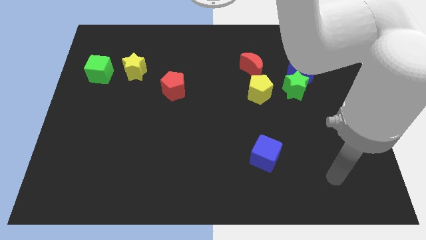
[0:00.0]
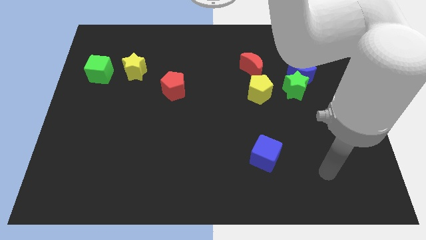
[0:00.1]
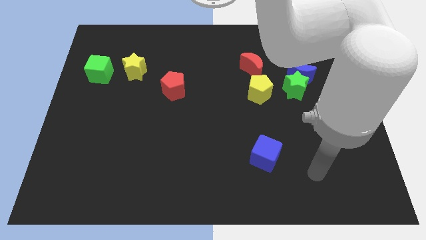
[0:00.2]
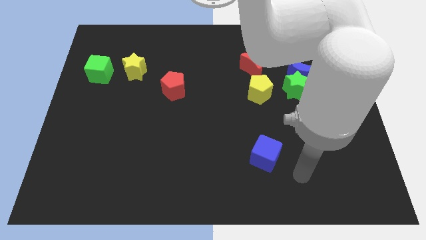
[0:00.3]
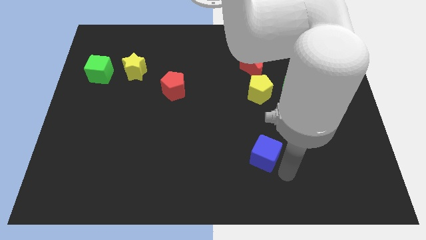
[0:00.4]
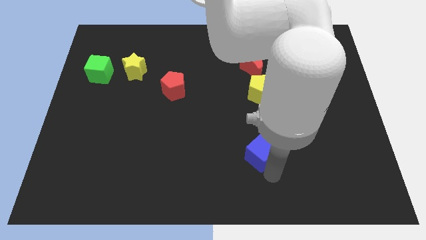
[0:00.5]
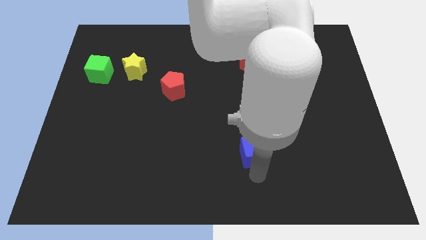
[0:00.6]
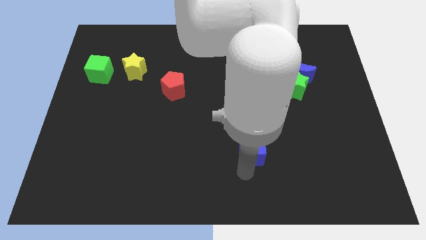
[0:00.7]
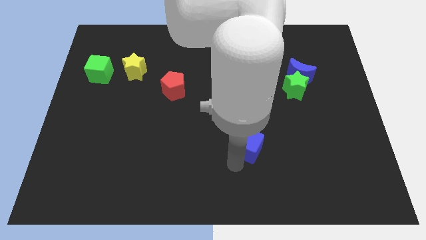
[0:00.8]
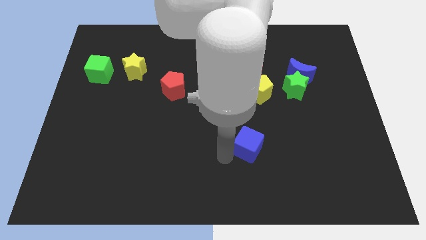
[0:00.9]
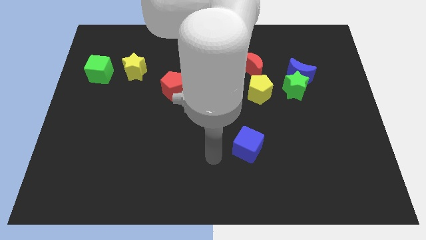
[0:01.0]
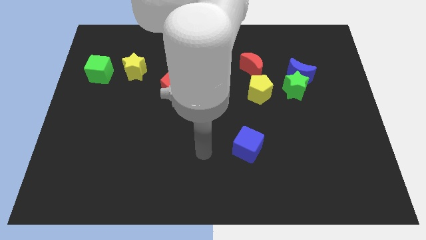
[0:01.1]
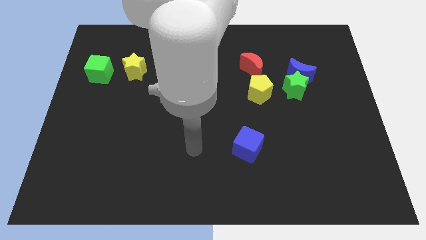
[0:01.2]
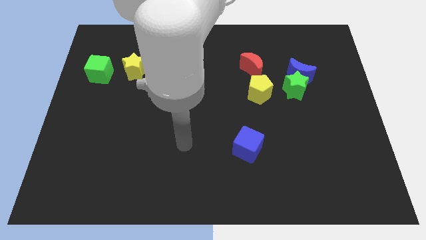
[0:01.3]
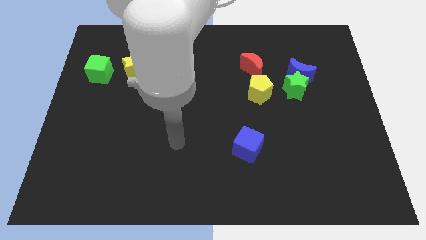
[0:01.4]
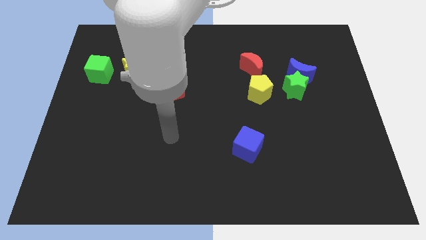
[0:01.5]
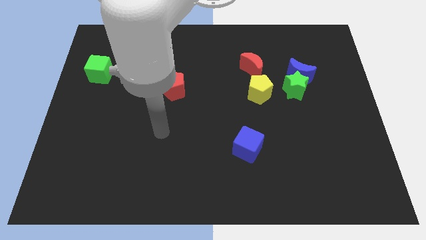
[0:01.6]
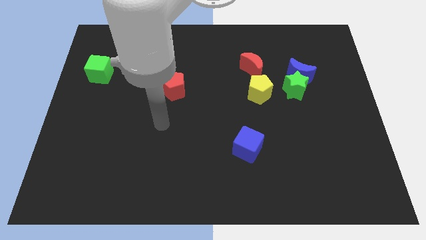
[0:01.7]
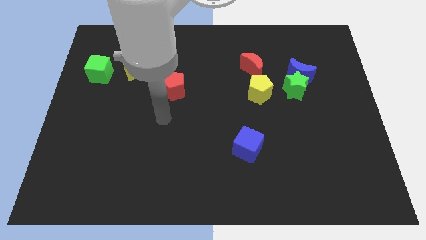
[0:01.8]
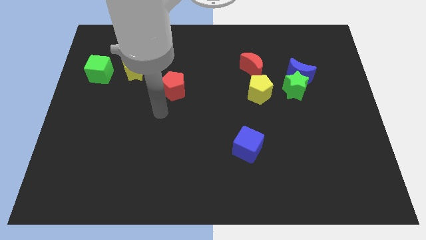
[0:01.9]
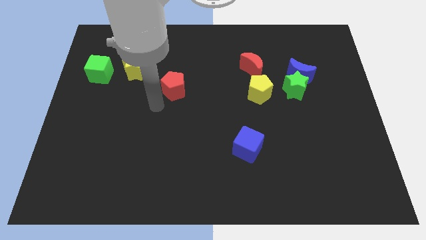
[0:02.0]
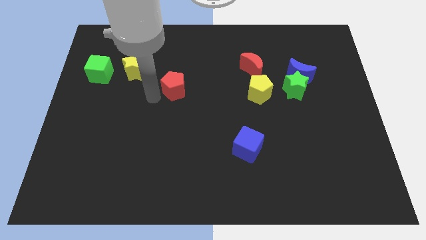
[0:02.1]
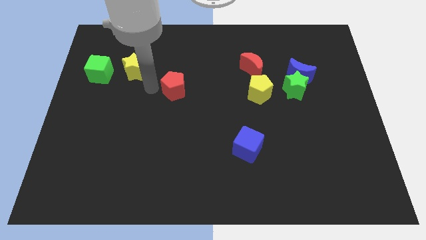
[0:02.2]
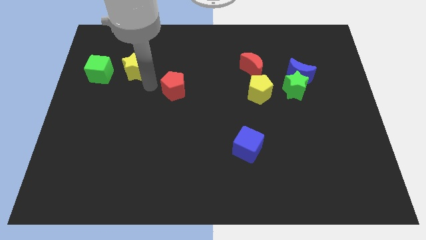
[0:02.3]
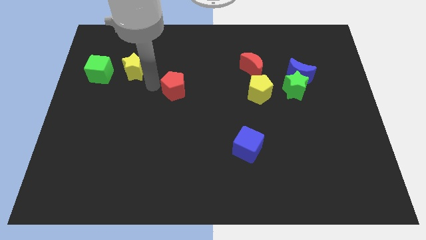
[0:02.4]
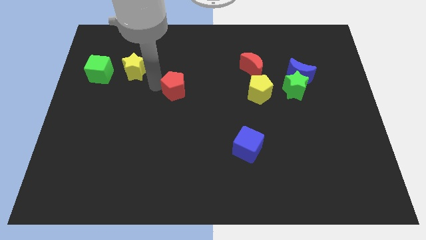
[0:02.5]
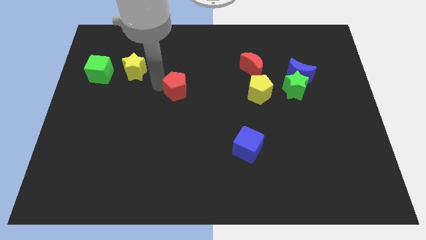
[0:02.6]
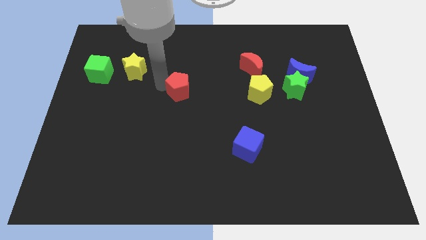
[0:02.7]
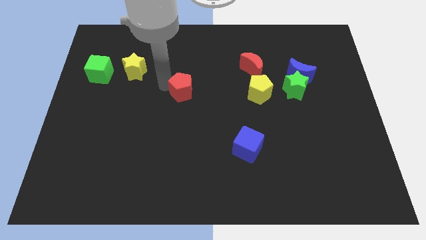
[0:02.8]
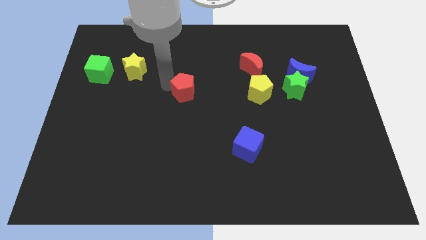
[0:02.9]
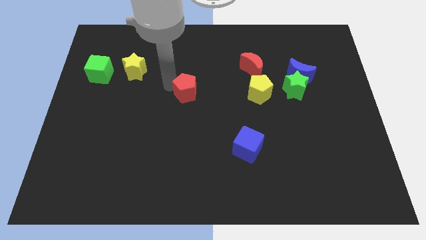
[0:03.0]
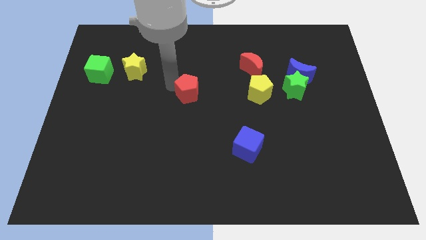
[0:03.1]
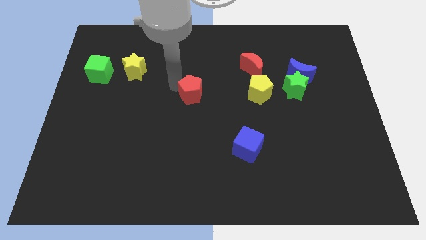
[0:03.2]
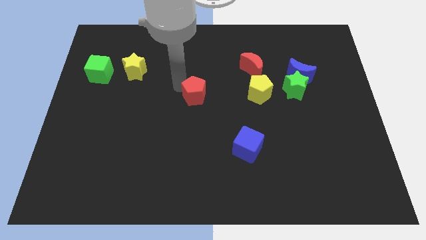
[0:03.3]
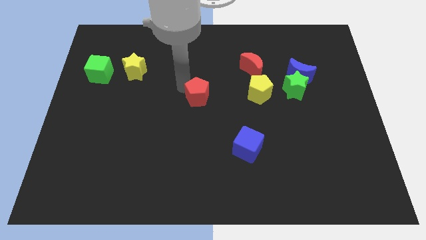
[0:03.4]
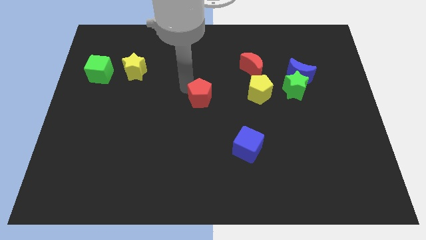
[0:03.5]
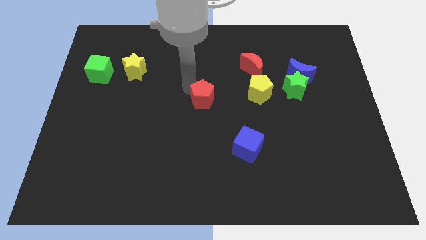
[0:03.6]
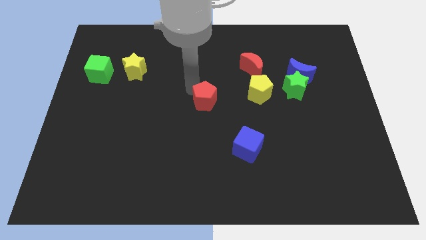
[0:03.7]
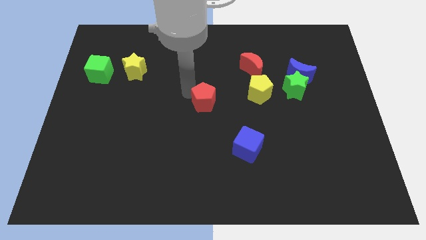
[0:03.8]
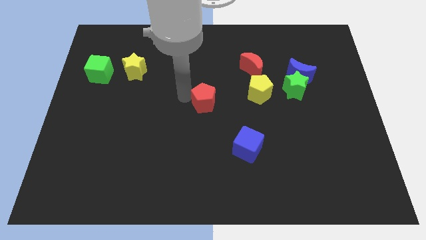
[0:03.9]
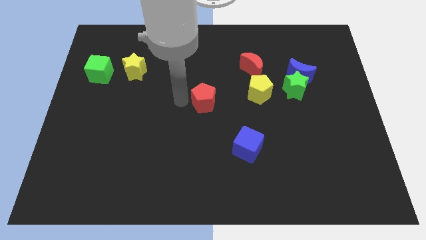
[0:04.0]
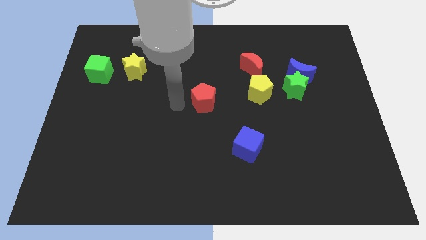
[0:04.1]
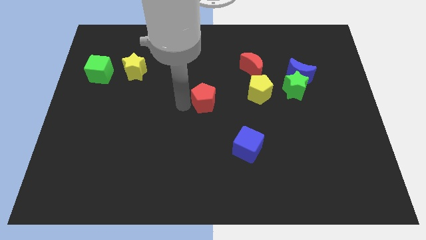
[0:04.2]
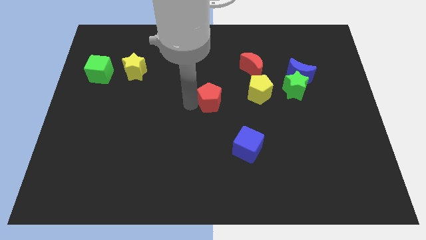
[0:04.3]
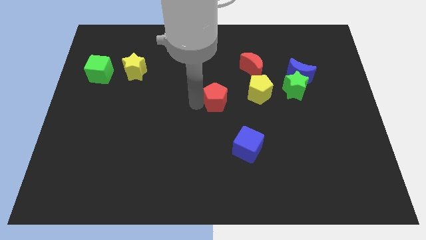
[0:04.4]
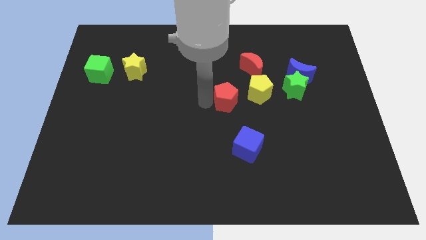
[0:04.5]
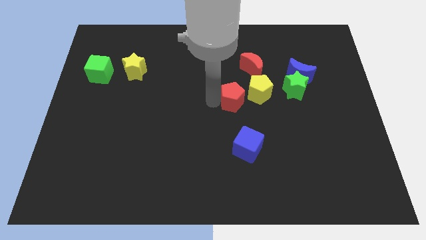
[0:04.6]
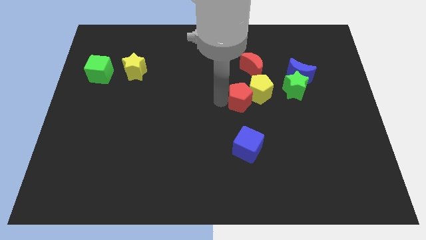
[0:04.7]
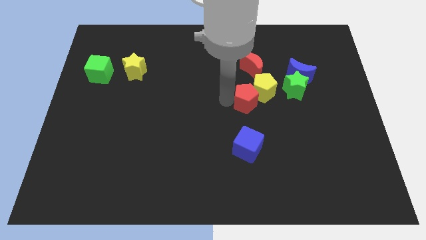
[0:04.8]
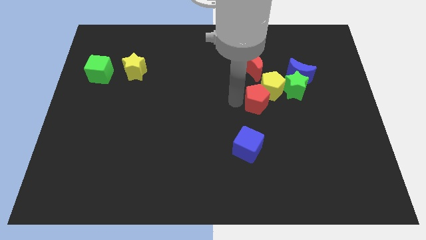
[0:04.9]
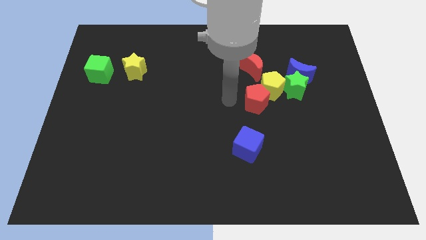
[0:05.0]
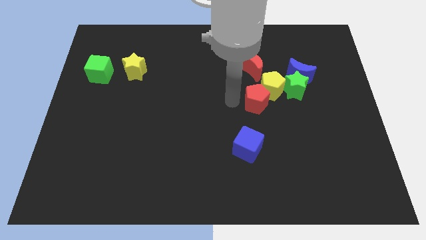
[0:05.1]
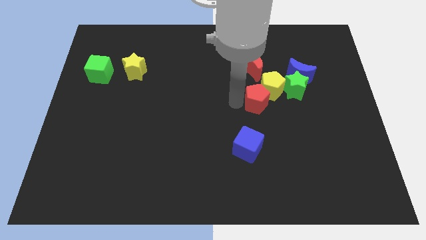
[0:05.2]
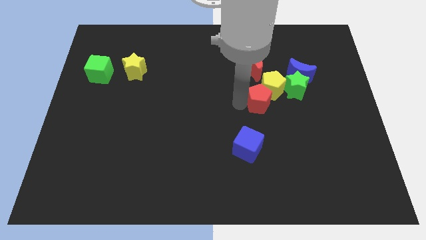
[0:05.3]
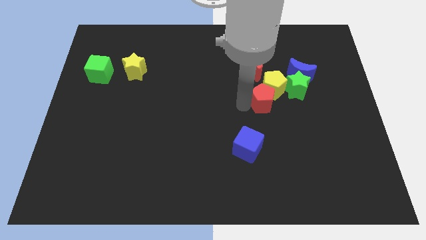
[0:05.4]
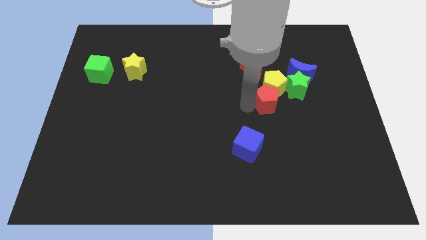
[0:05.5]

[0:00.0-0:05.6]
push the red pentagon to the bottom right side of the yellow pentagon

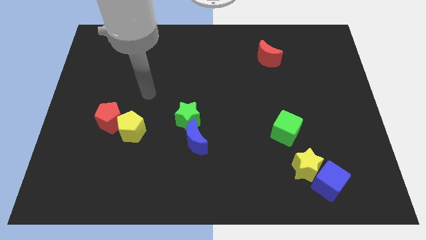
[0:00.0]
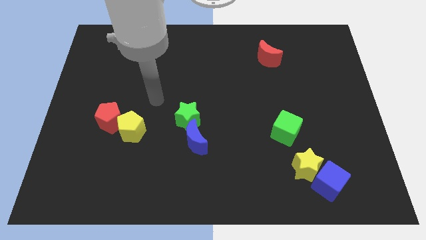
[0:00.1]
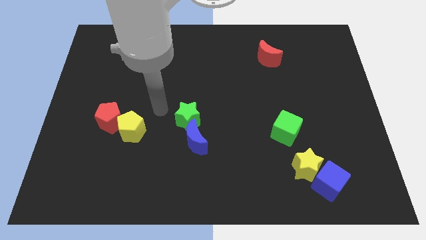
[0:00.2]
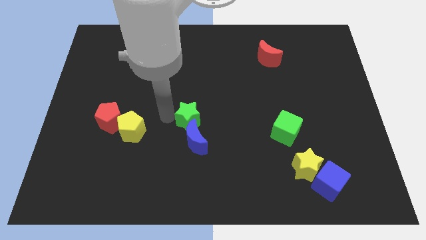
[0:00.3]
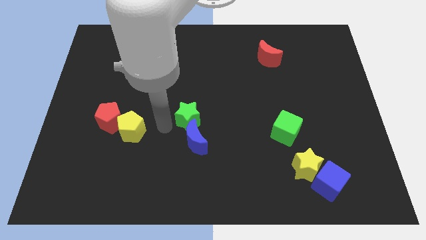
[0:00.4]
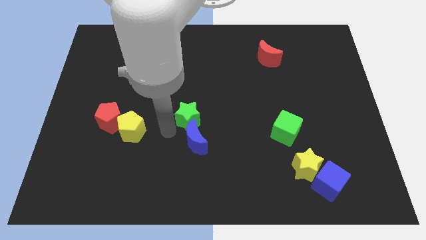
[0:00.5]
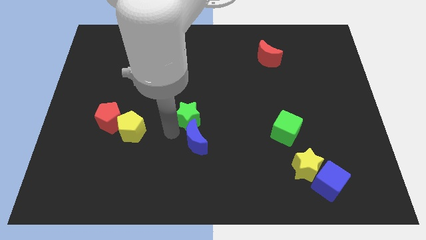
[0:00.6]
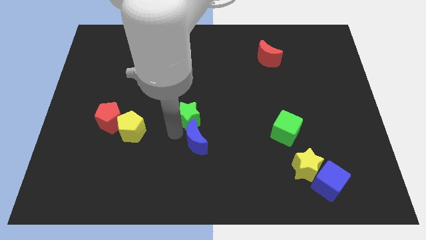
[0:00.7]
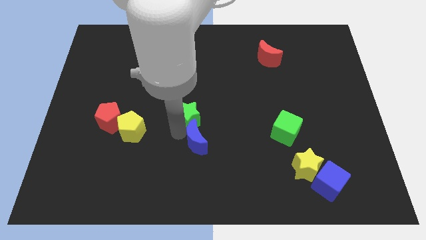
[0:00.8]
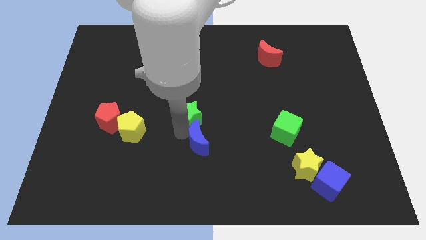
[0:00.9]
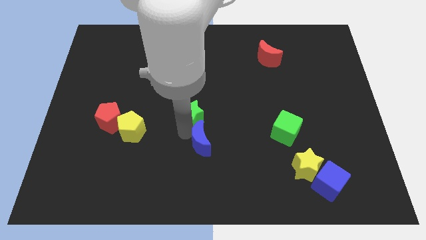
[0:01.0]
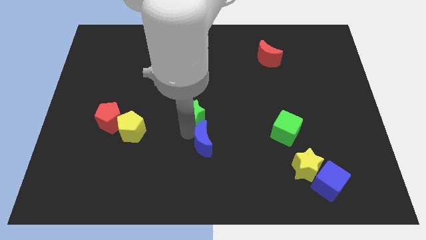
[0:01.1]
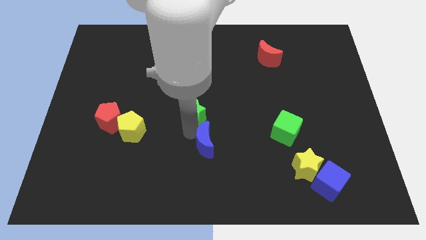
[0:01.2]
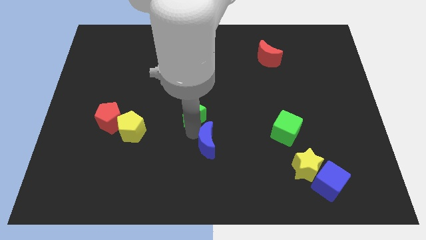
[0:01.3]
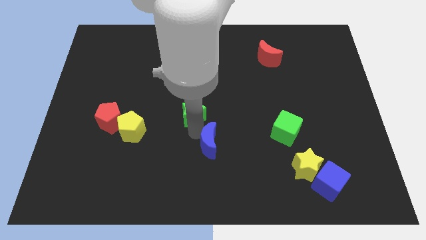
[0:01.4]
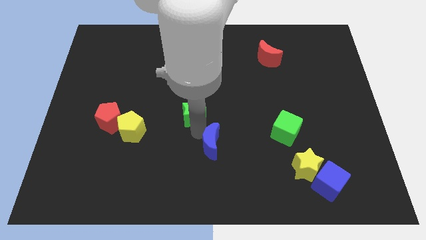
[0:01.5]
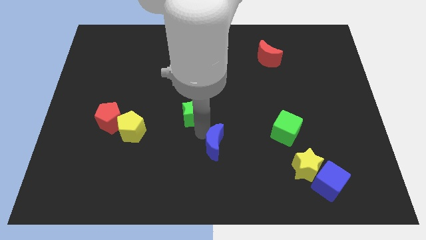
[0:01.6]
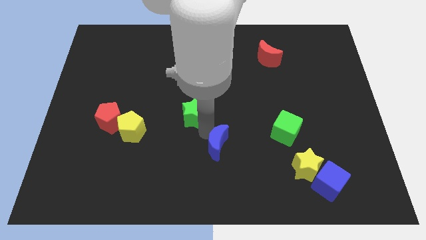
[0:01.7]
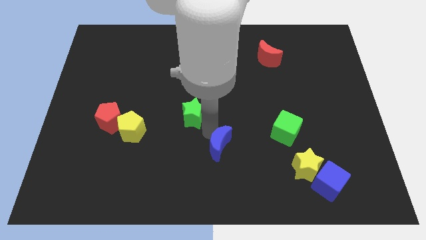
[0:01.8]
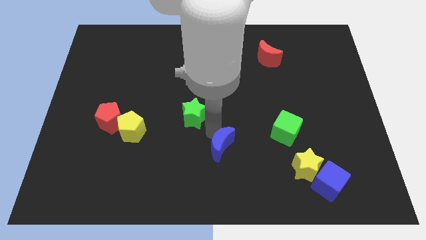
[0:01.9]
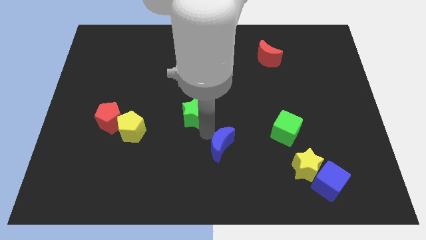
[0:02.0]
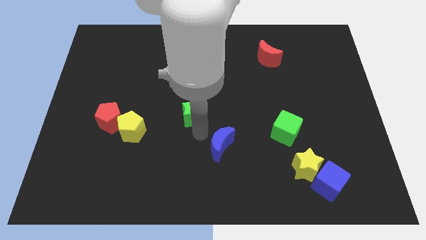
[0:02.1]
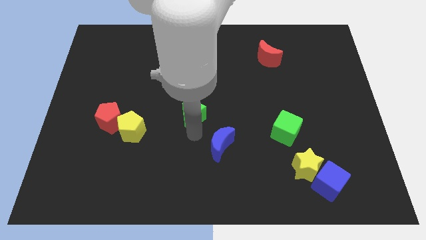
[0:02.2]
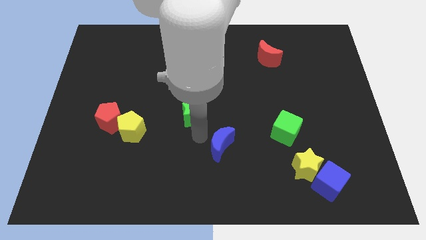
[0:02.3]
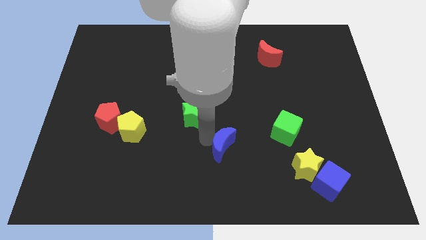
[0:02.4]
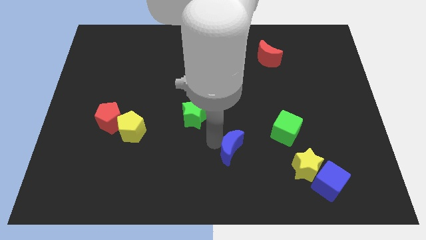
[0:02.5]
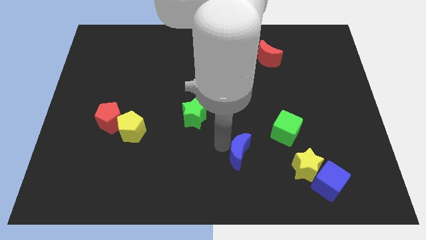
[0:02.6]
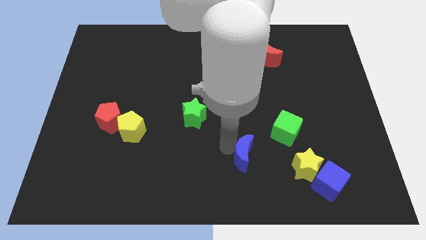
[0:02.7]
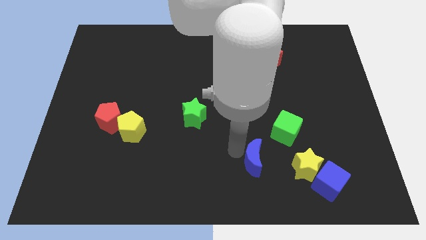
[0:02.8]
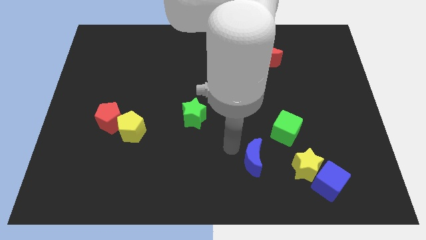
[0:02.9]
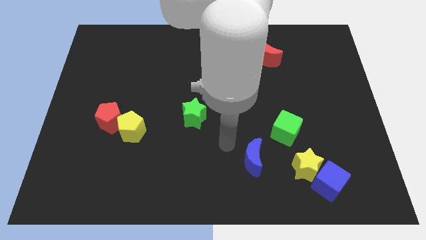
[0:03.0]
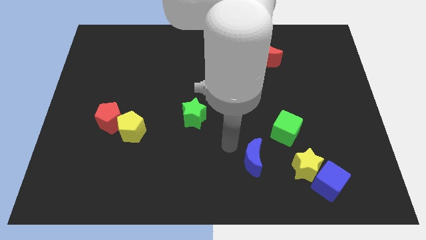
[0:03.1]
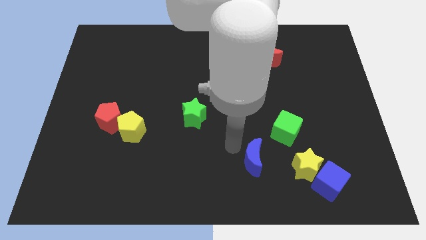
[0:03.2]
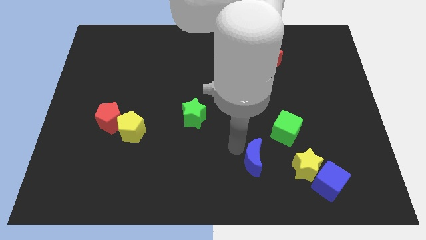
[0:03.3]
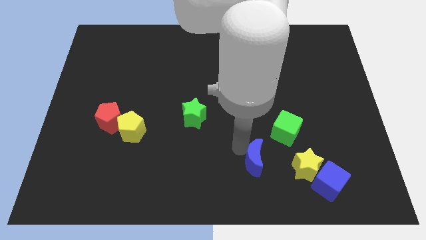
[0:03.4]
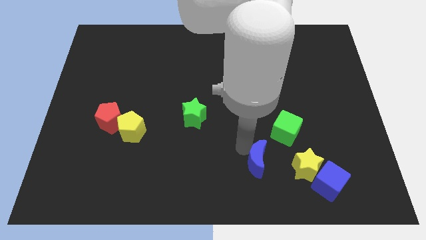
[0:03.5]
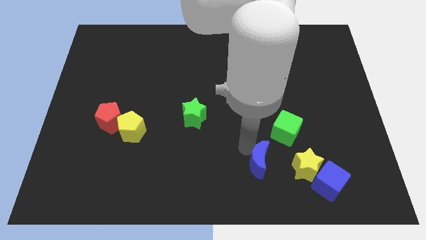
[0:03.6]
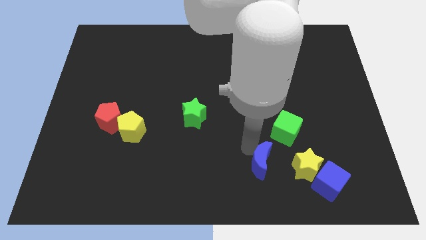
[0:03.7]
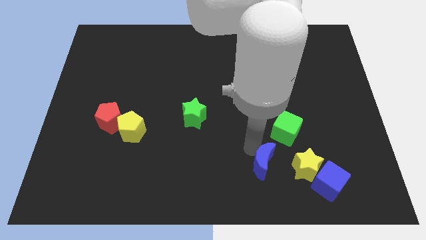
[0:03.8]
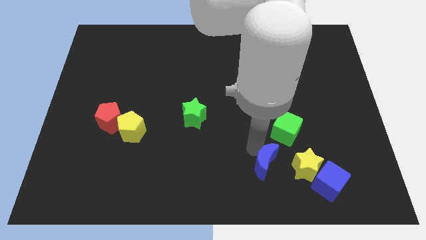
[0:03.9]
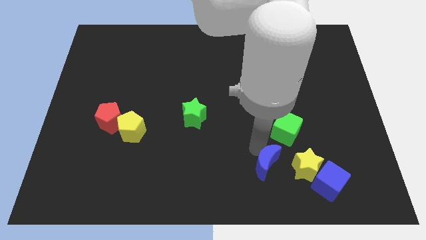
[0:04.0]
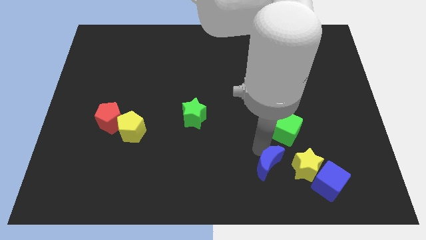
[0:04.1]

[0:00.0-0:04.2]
push the blue moon to the bottom of the green cube
